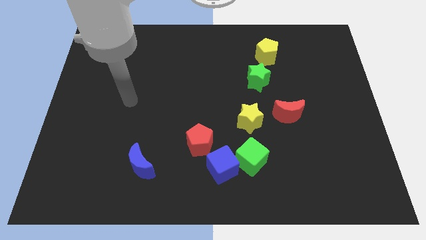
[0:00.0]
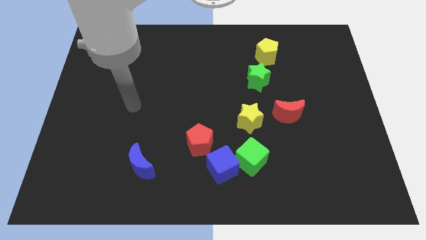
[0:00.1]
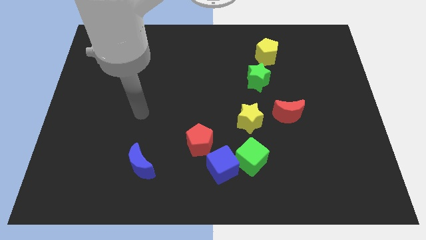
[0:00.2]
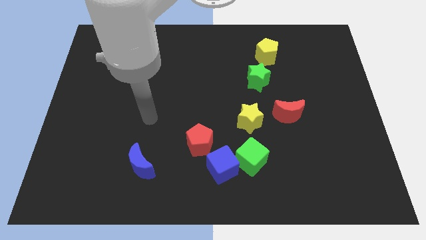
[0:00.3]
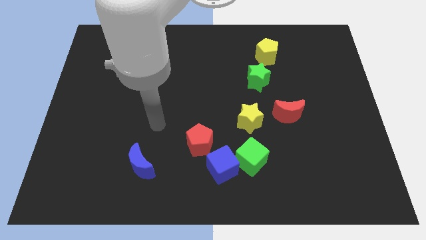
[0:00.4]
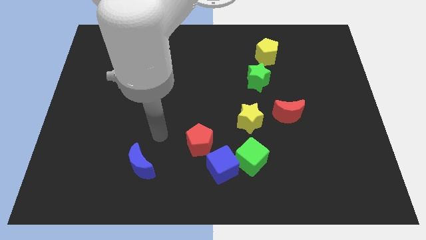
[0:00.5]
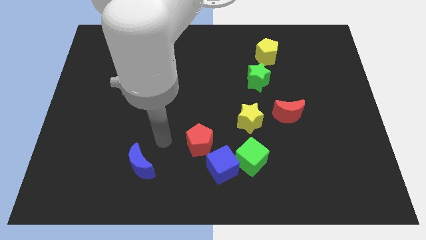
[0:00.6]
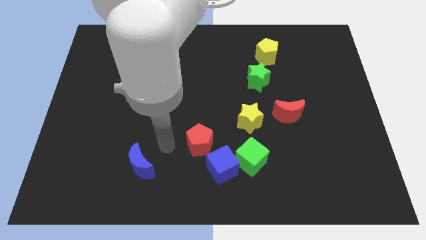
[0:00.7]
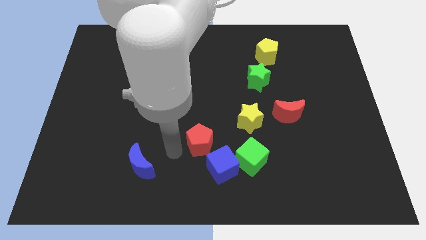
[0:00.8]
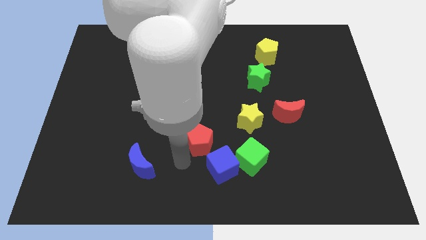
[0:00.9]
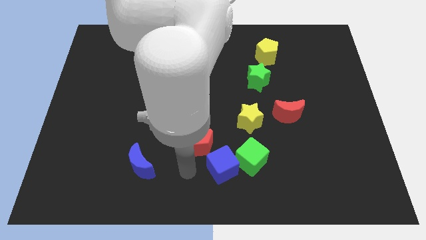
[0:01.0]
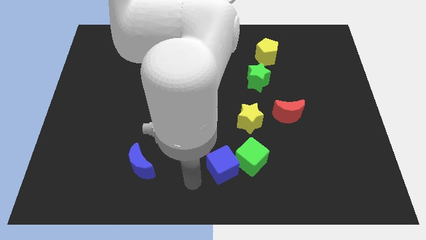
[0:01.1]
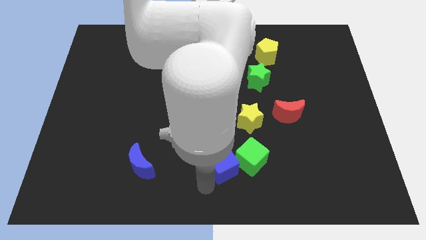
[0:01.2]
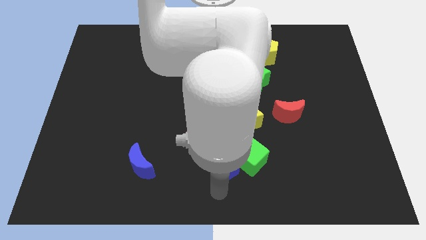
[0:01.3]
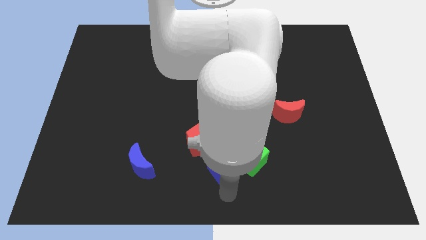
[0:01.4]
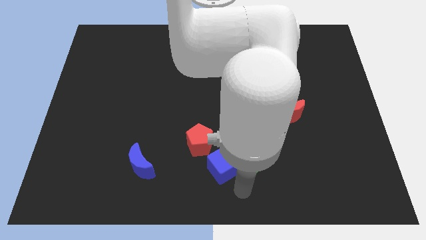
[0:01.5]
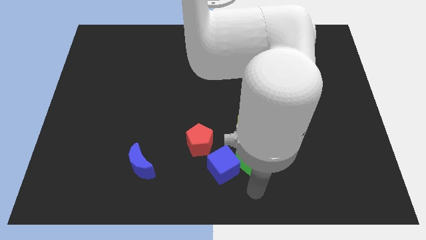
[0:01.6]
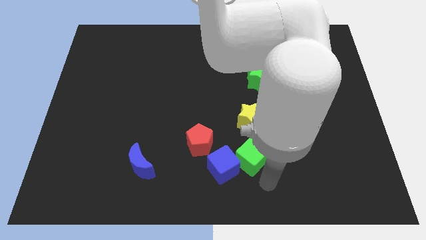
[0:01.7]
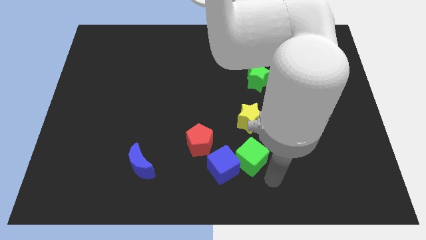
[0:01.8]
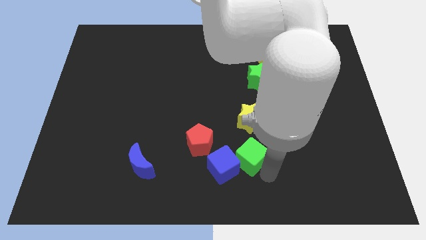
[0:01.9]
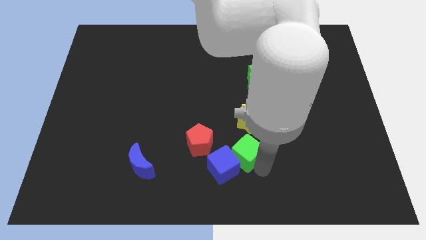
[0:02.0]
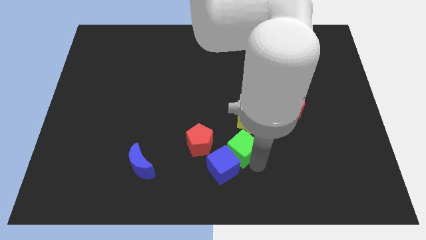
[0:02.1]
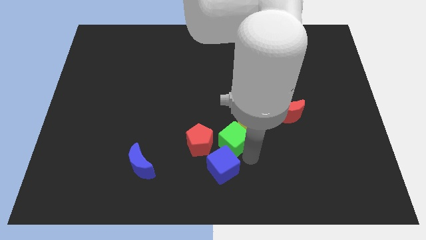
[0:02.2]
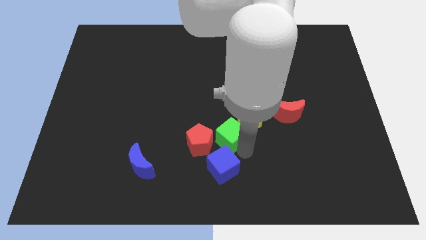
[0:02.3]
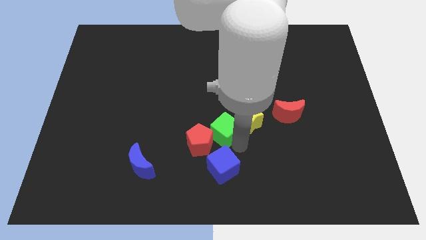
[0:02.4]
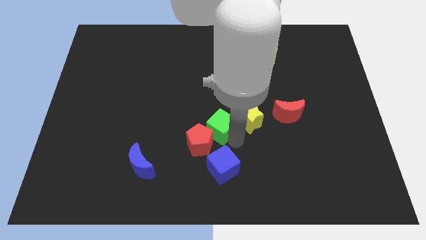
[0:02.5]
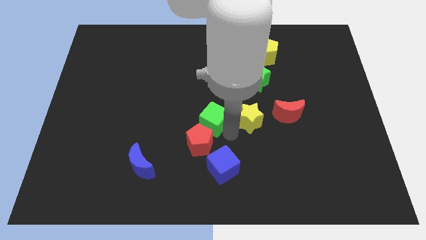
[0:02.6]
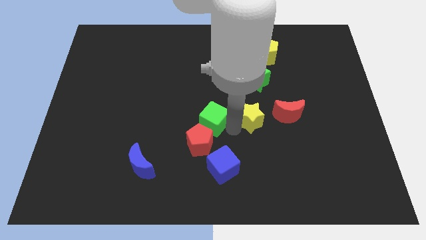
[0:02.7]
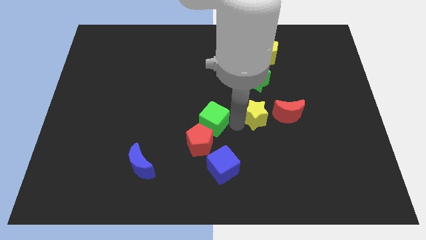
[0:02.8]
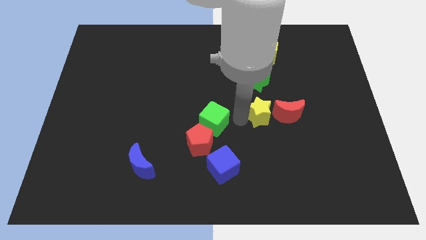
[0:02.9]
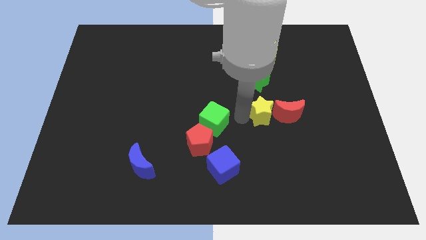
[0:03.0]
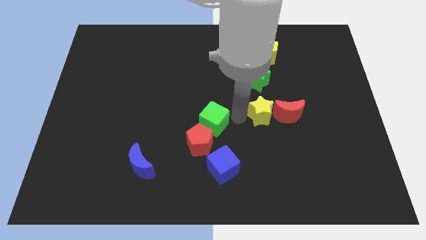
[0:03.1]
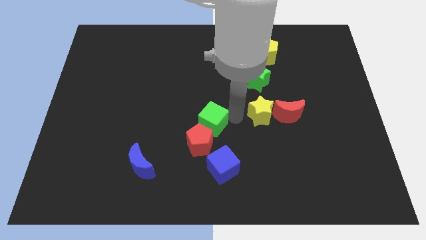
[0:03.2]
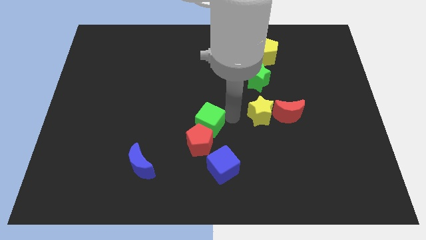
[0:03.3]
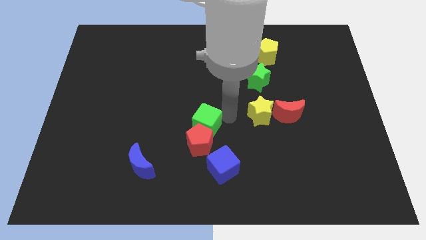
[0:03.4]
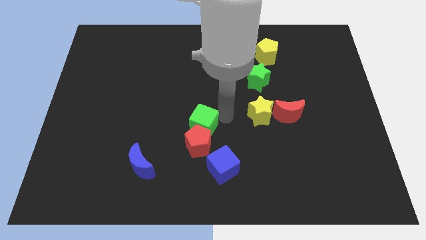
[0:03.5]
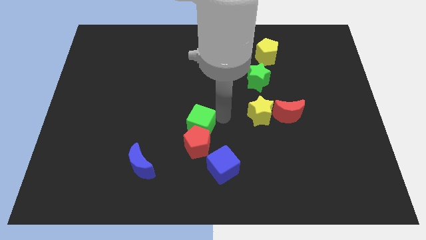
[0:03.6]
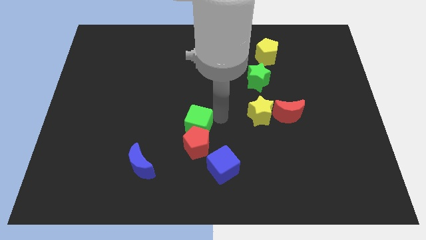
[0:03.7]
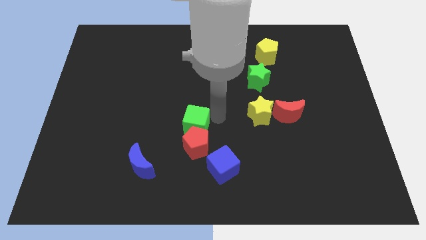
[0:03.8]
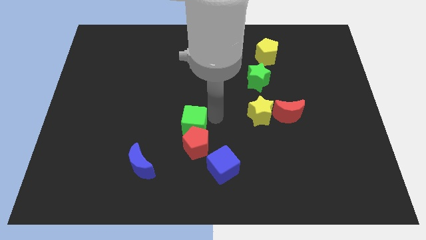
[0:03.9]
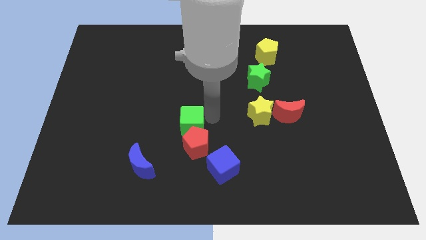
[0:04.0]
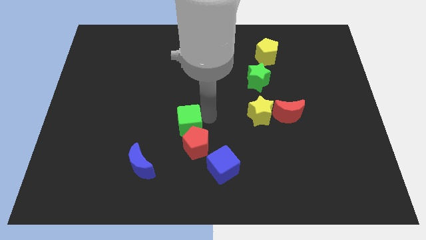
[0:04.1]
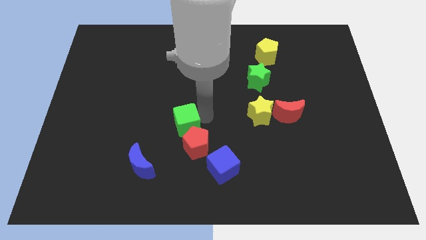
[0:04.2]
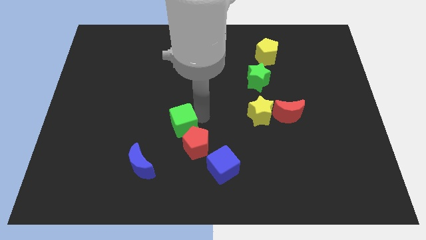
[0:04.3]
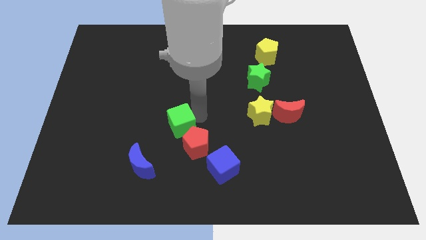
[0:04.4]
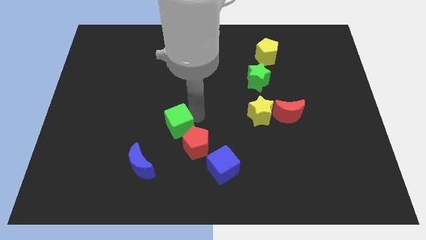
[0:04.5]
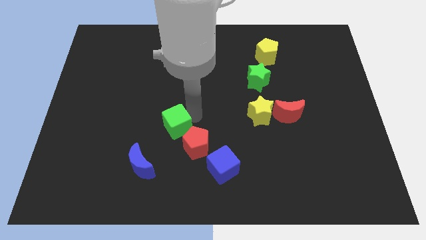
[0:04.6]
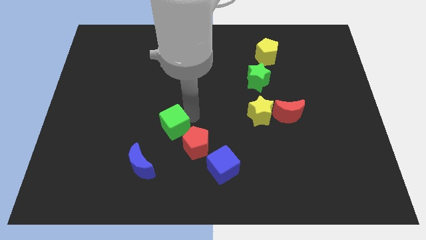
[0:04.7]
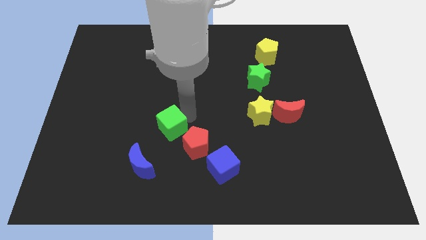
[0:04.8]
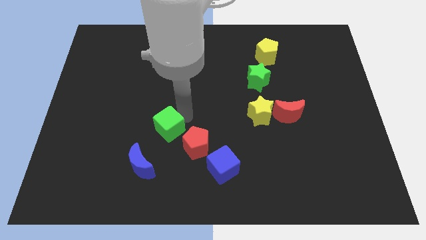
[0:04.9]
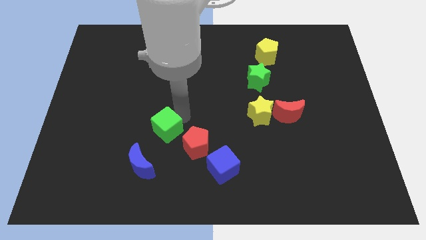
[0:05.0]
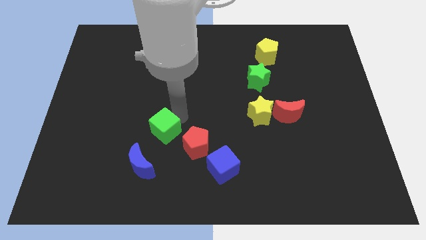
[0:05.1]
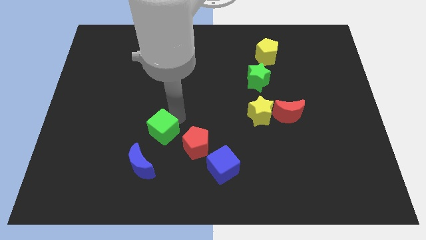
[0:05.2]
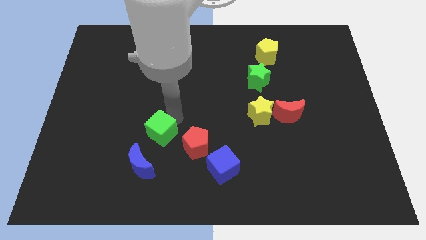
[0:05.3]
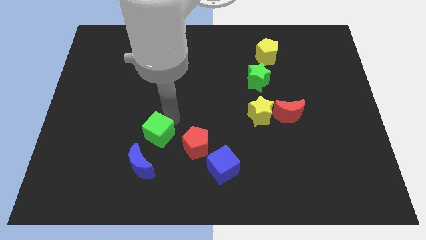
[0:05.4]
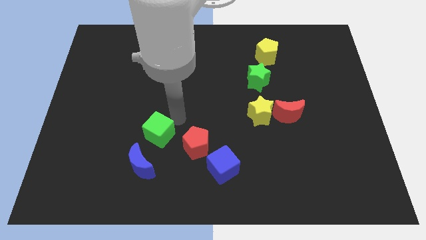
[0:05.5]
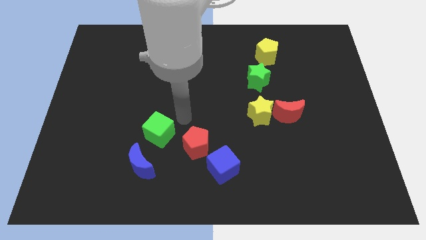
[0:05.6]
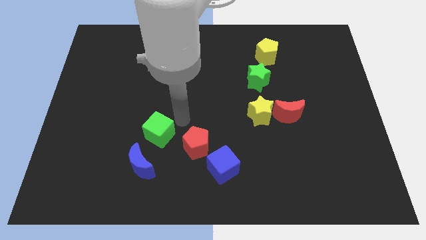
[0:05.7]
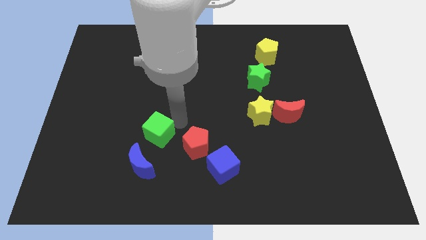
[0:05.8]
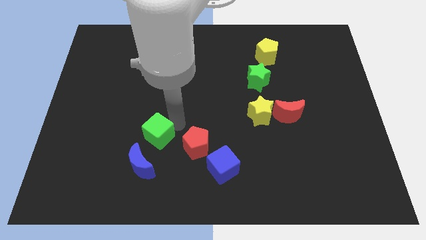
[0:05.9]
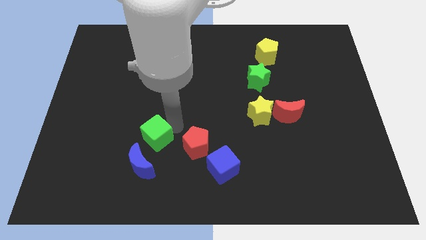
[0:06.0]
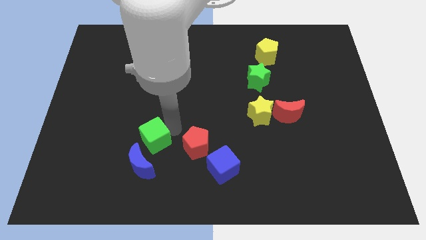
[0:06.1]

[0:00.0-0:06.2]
push the green cube to the left

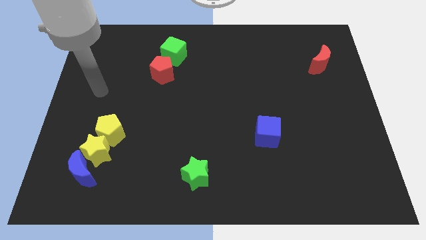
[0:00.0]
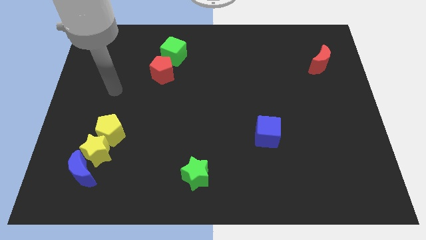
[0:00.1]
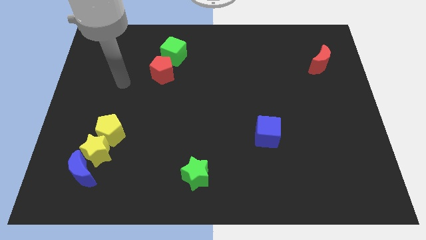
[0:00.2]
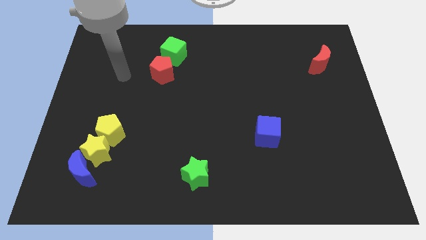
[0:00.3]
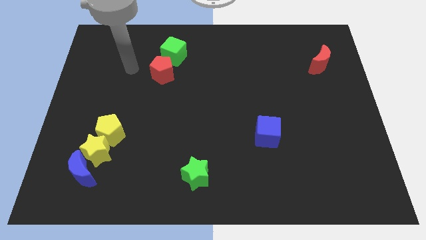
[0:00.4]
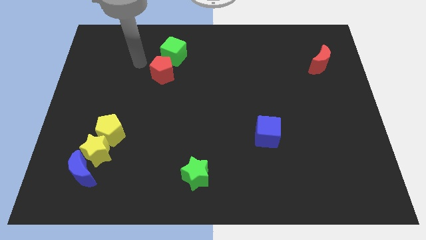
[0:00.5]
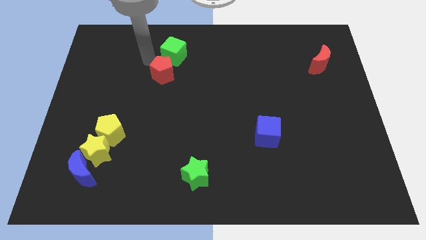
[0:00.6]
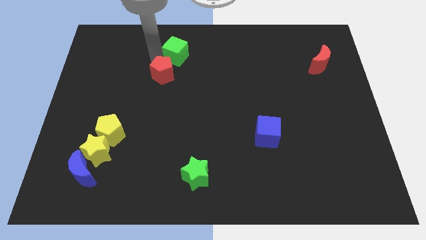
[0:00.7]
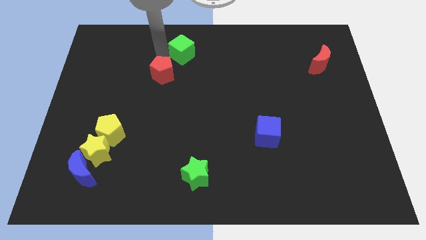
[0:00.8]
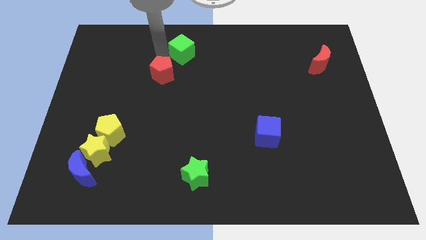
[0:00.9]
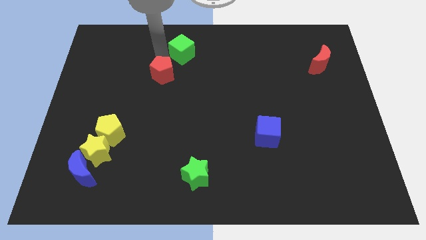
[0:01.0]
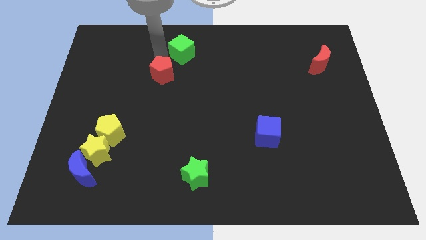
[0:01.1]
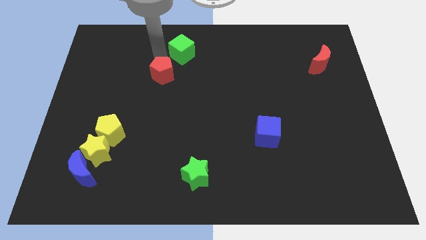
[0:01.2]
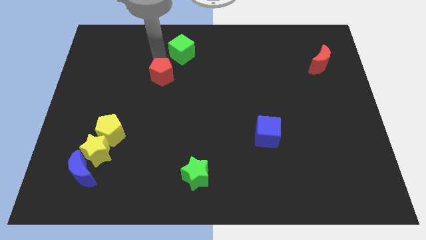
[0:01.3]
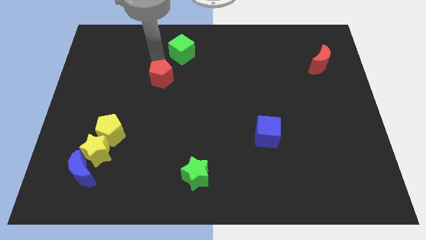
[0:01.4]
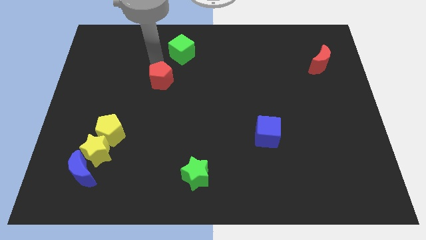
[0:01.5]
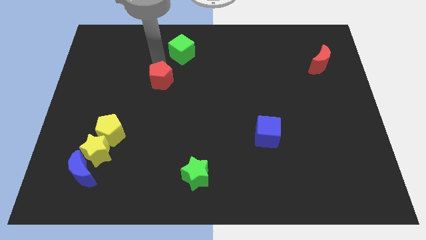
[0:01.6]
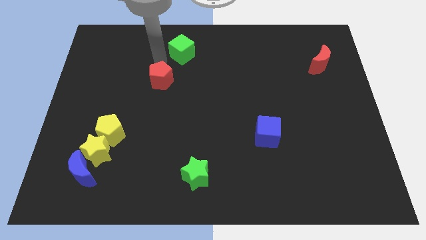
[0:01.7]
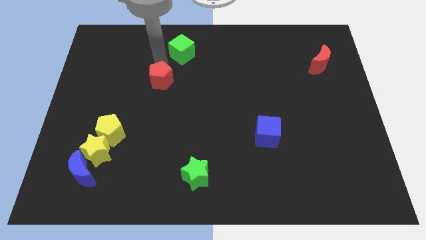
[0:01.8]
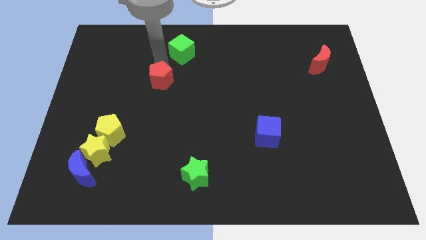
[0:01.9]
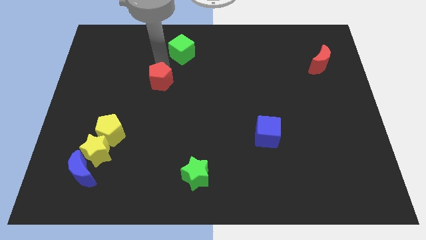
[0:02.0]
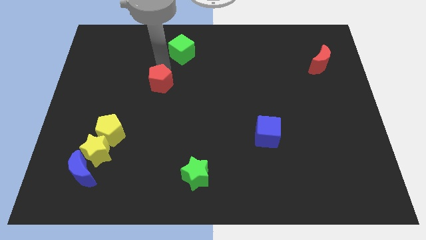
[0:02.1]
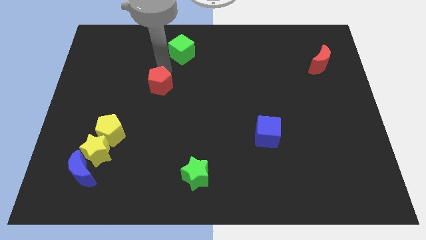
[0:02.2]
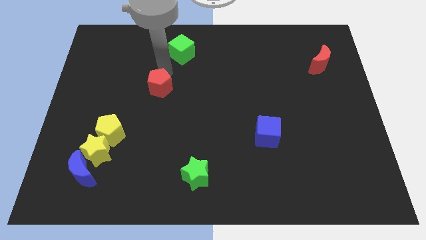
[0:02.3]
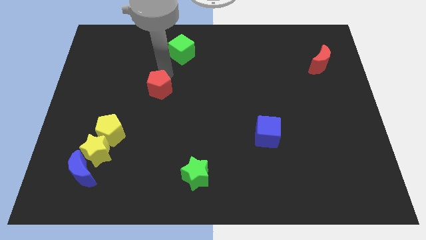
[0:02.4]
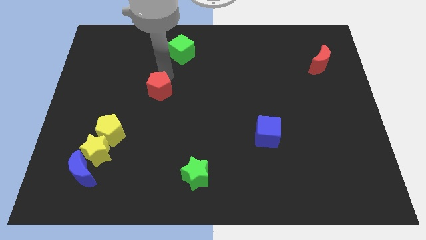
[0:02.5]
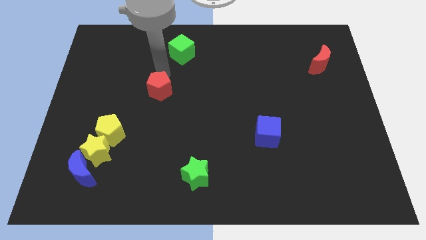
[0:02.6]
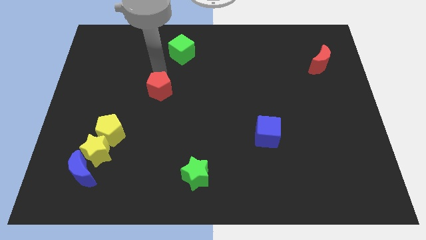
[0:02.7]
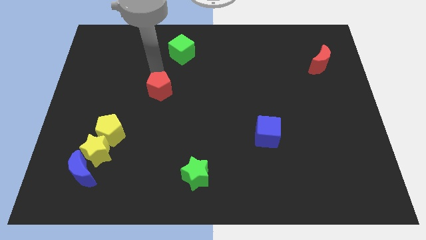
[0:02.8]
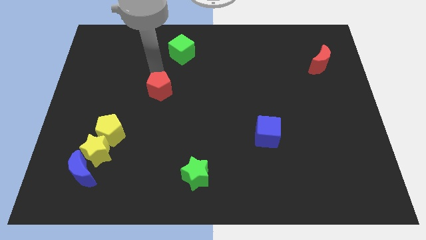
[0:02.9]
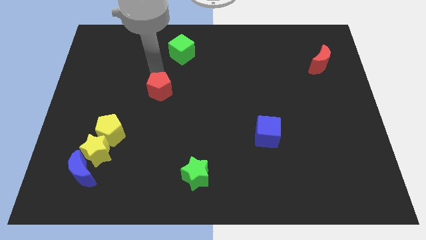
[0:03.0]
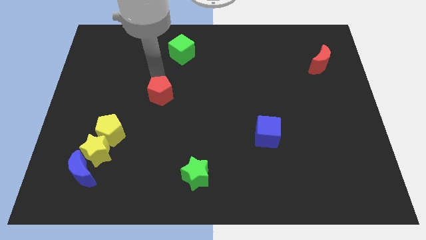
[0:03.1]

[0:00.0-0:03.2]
move the red pentagon a little bit downwards
